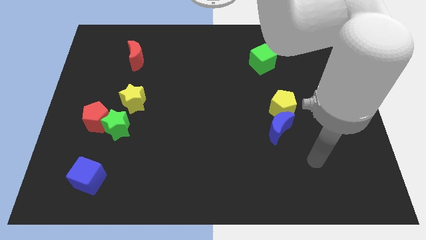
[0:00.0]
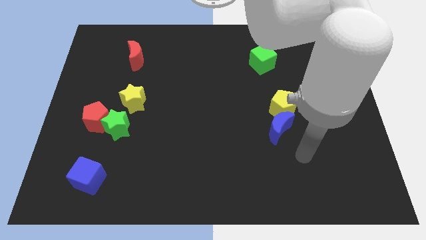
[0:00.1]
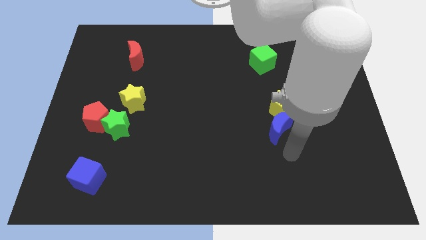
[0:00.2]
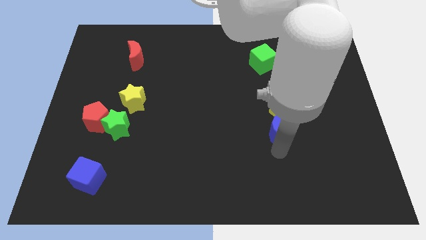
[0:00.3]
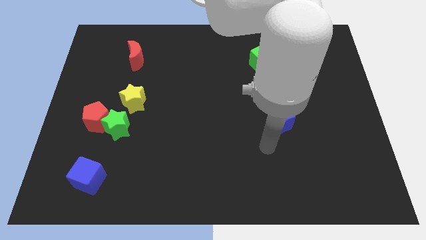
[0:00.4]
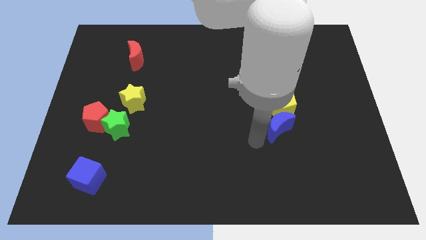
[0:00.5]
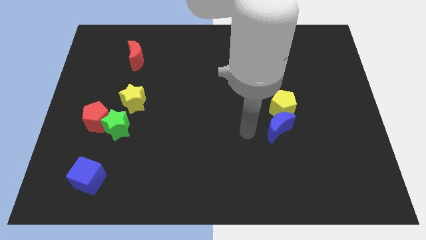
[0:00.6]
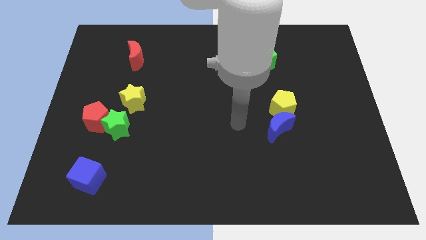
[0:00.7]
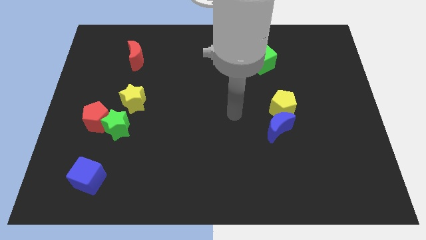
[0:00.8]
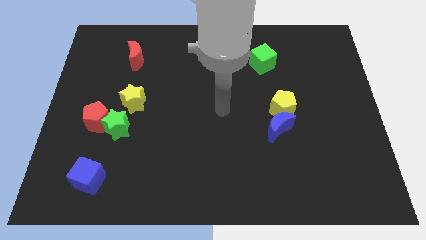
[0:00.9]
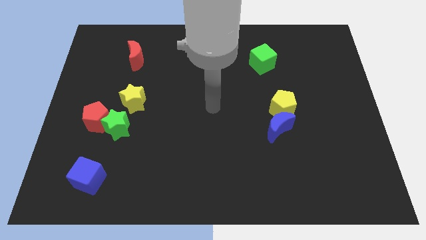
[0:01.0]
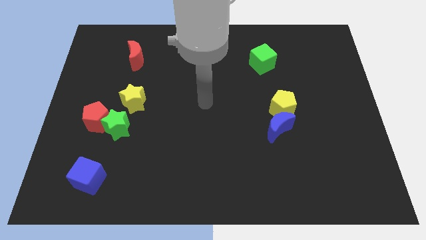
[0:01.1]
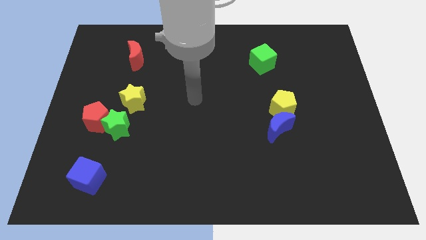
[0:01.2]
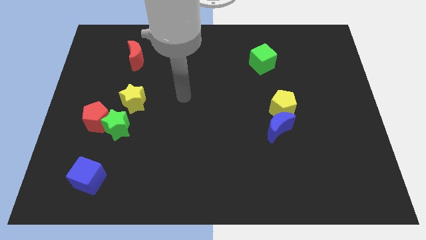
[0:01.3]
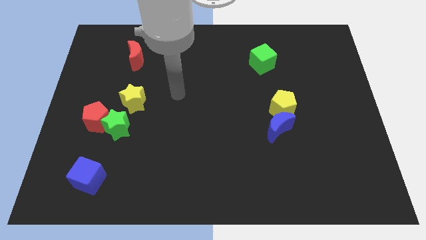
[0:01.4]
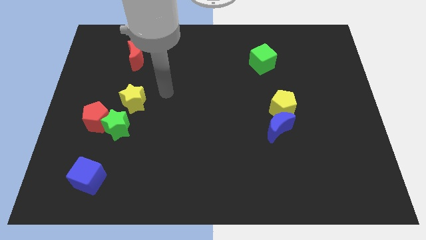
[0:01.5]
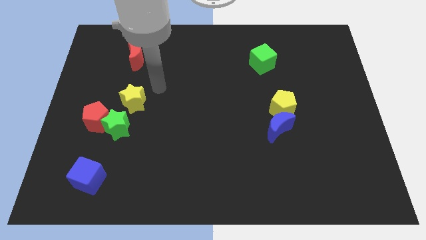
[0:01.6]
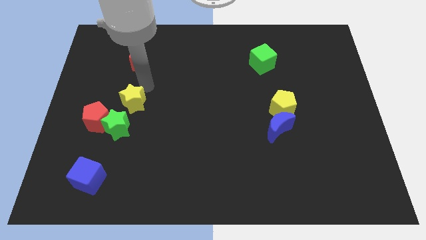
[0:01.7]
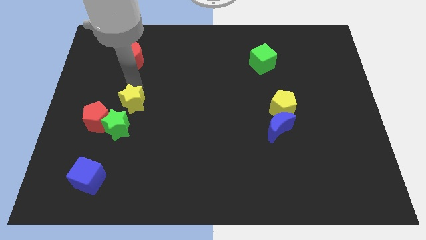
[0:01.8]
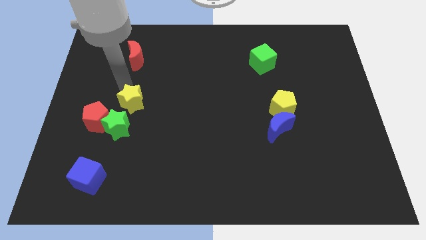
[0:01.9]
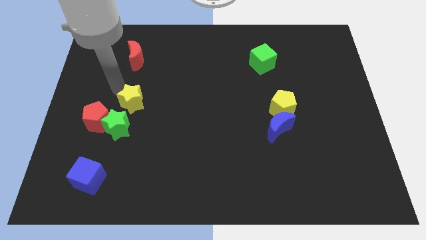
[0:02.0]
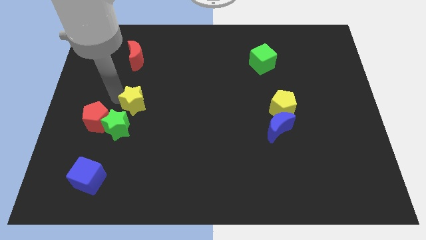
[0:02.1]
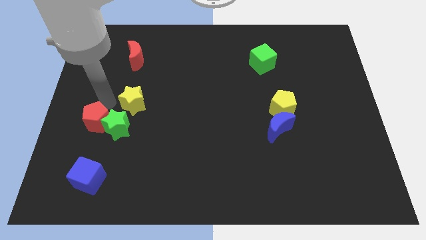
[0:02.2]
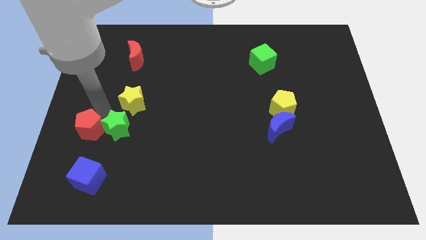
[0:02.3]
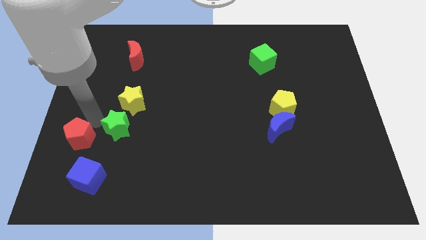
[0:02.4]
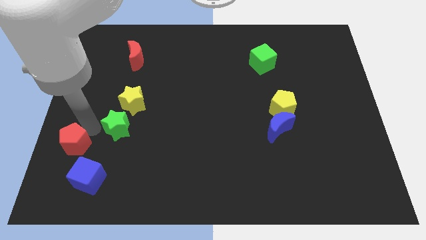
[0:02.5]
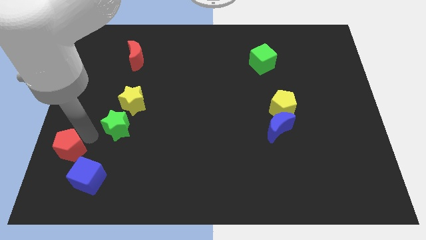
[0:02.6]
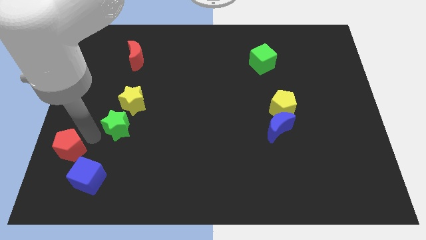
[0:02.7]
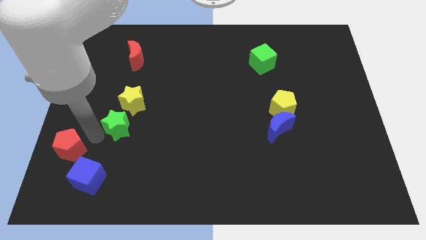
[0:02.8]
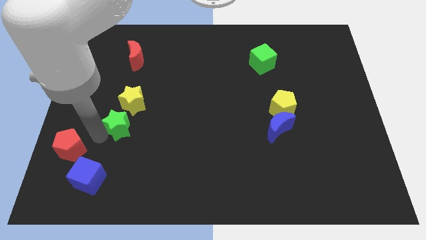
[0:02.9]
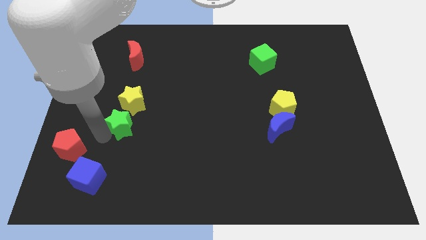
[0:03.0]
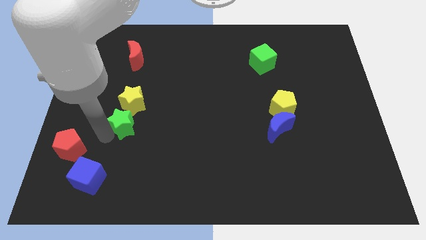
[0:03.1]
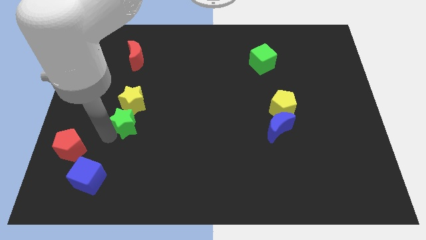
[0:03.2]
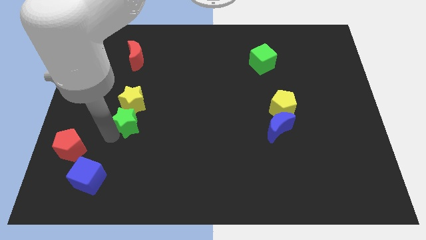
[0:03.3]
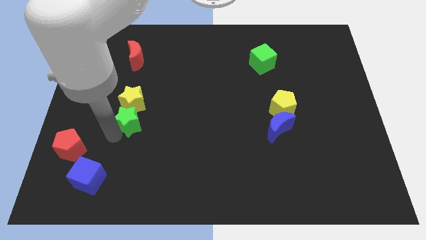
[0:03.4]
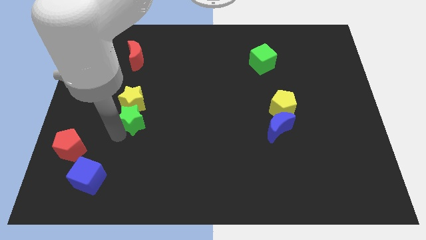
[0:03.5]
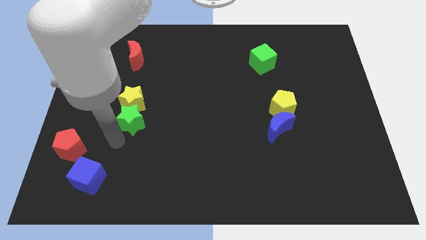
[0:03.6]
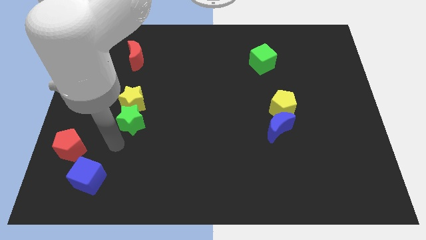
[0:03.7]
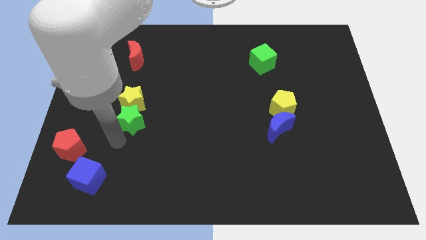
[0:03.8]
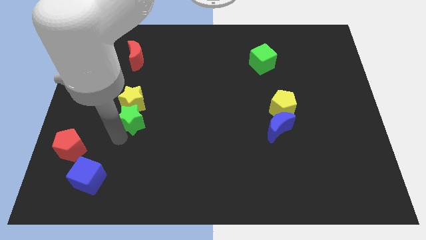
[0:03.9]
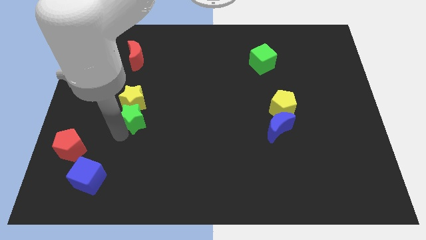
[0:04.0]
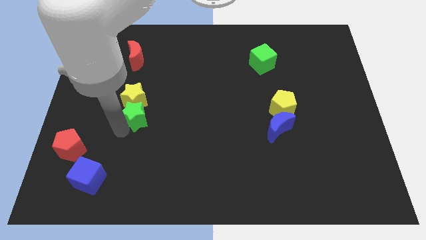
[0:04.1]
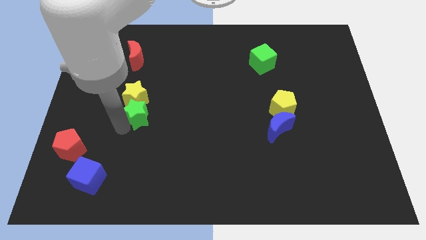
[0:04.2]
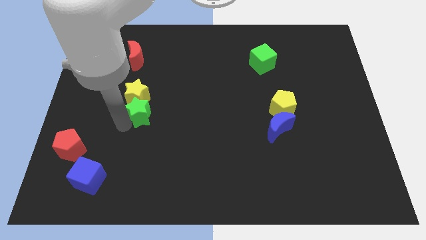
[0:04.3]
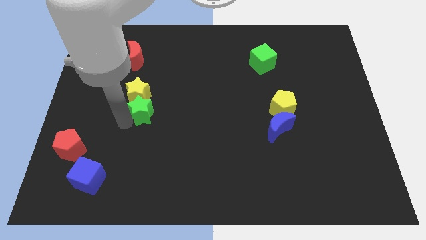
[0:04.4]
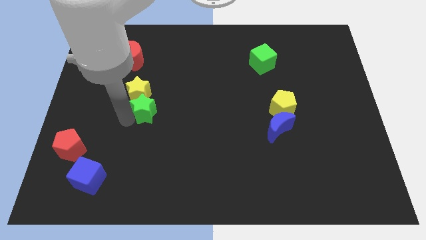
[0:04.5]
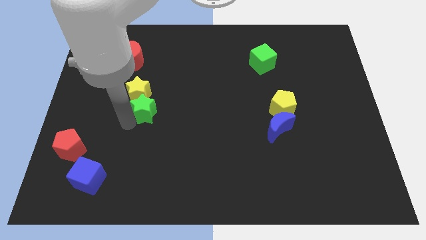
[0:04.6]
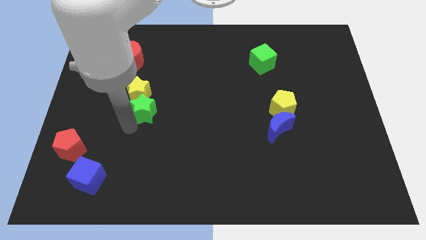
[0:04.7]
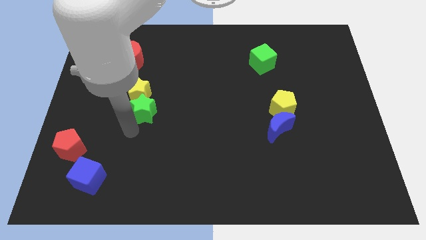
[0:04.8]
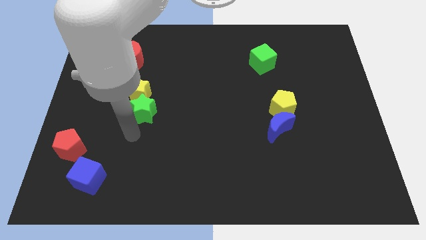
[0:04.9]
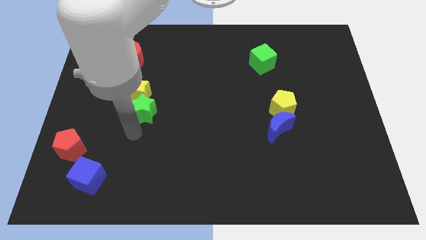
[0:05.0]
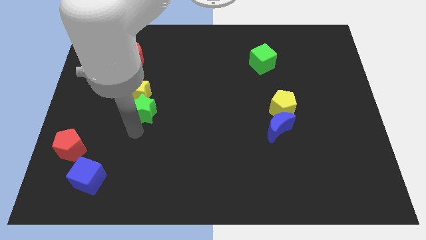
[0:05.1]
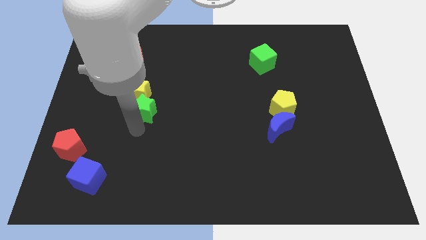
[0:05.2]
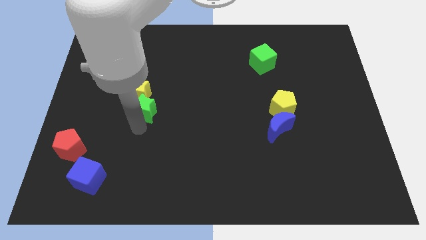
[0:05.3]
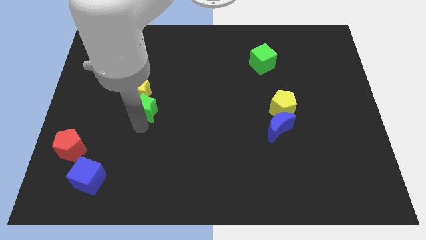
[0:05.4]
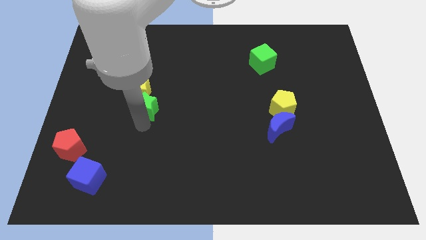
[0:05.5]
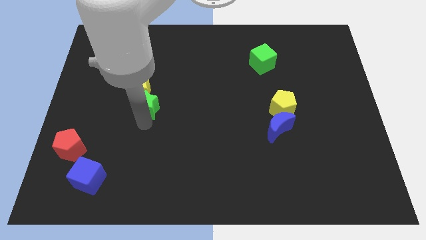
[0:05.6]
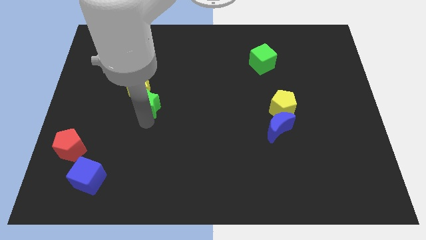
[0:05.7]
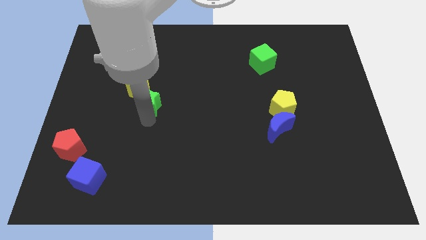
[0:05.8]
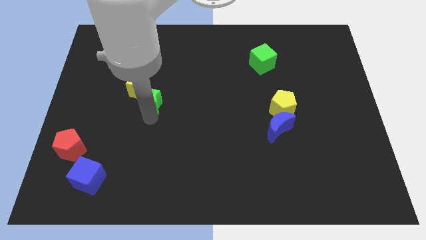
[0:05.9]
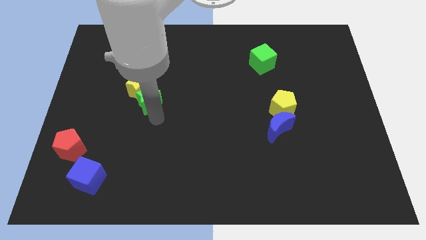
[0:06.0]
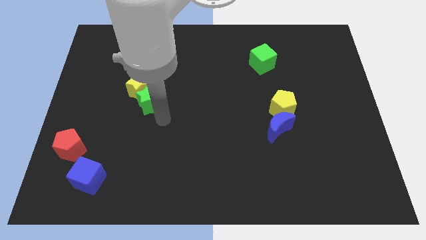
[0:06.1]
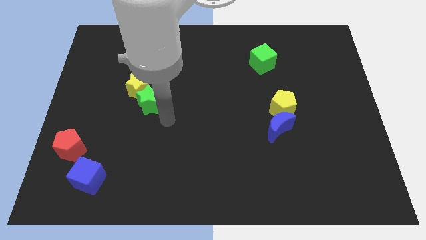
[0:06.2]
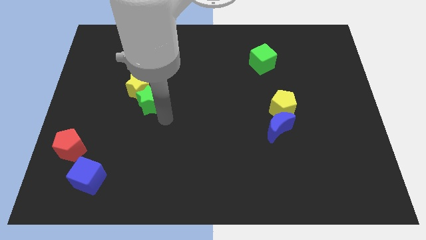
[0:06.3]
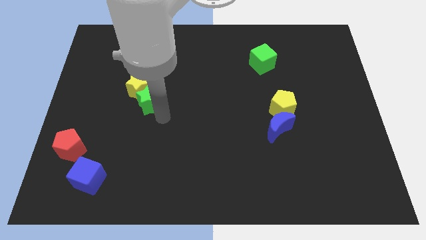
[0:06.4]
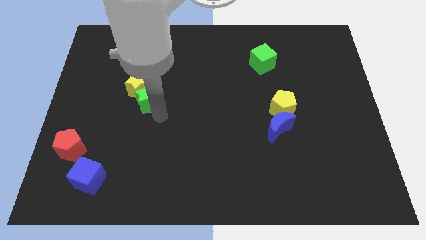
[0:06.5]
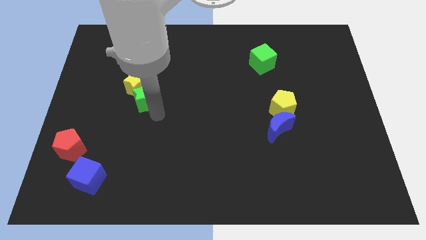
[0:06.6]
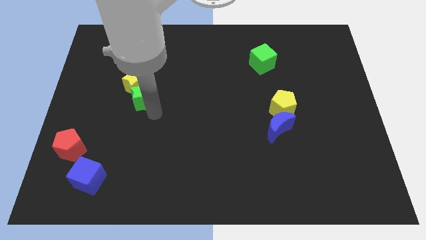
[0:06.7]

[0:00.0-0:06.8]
move the green star to the bottom of the red moon
